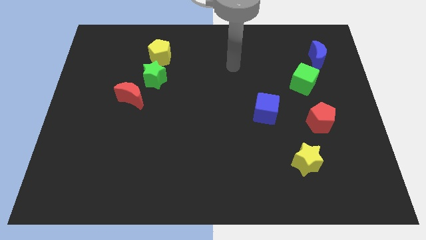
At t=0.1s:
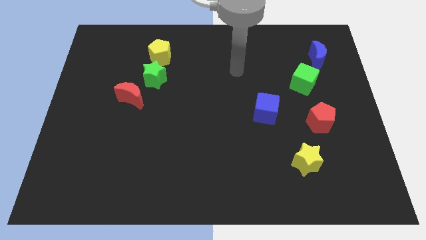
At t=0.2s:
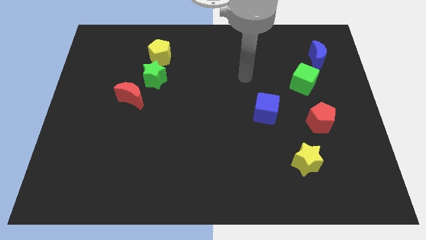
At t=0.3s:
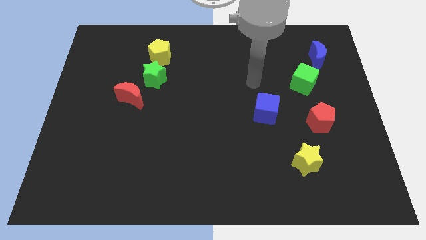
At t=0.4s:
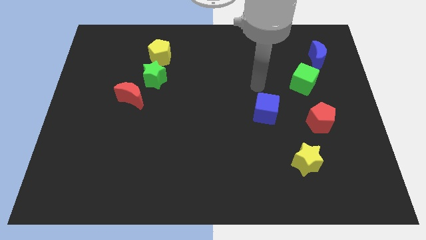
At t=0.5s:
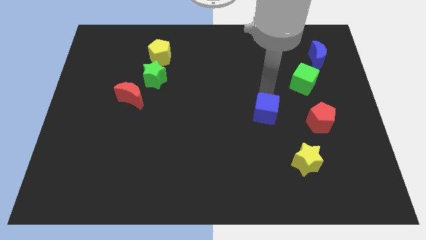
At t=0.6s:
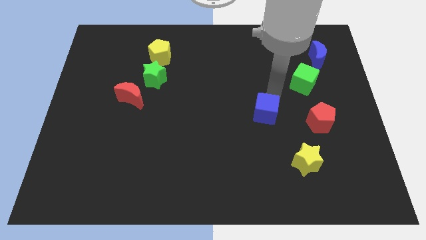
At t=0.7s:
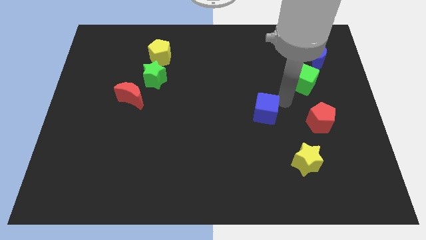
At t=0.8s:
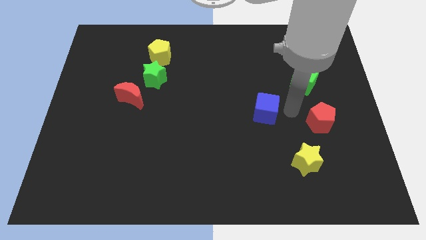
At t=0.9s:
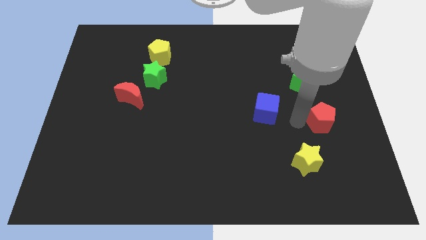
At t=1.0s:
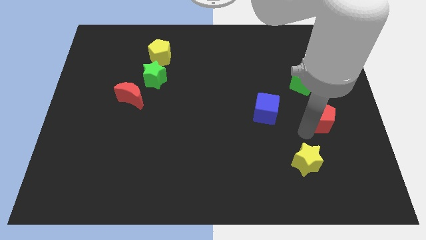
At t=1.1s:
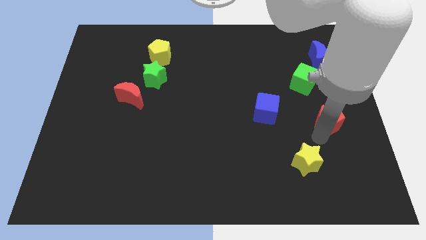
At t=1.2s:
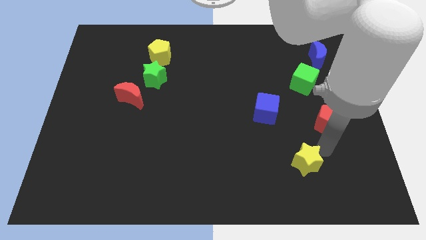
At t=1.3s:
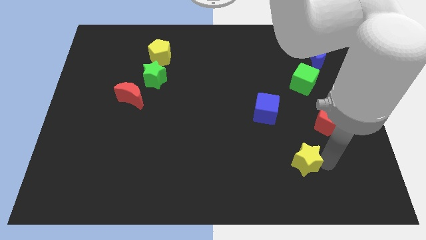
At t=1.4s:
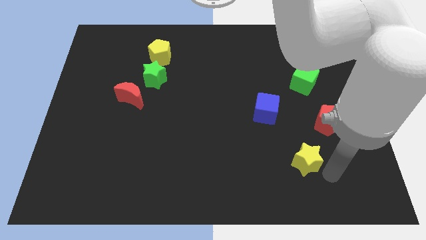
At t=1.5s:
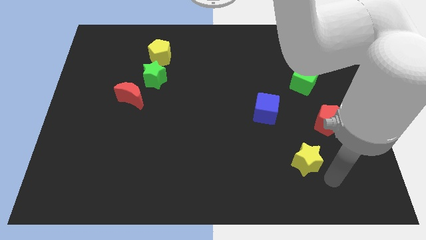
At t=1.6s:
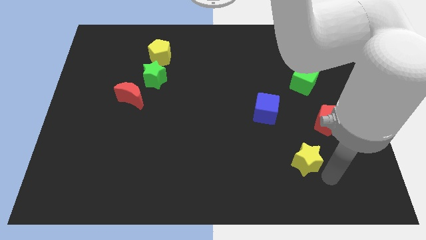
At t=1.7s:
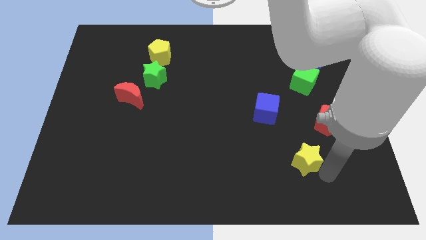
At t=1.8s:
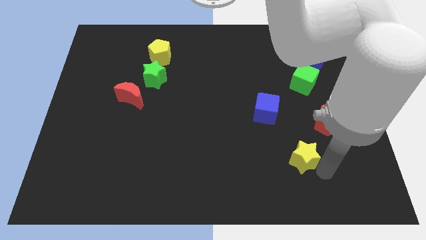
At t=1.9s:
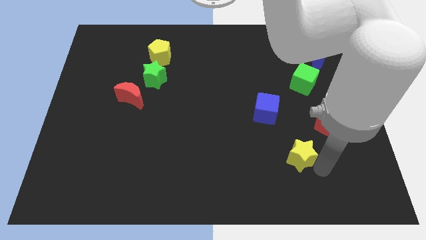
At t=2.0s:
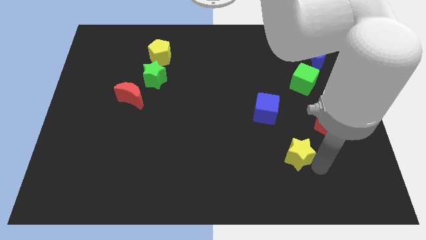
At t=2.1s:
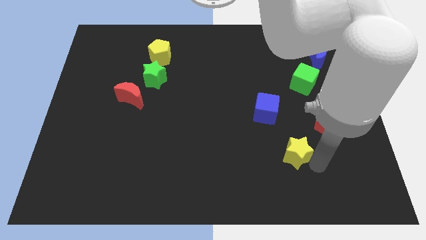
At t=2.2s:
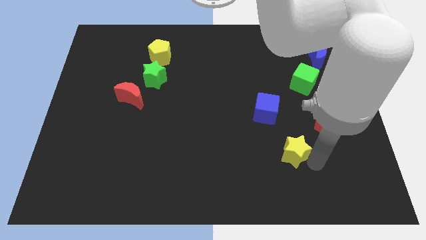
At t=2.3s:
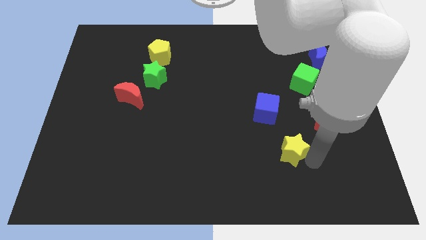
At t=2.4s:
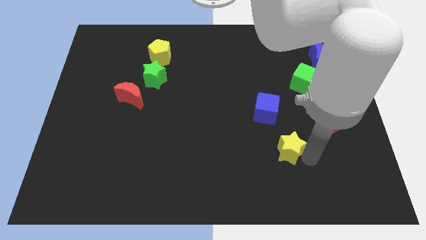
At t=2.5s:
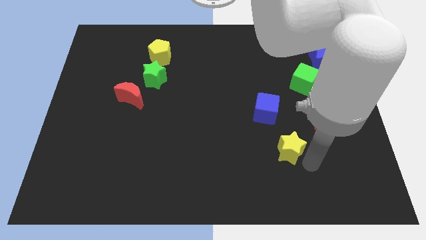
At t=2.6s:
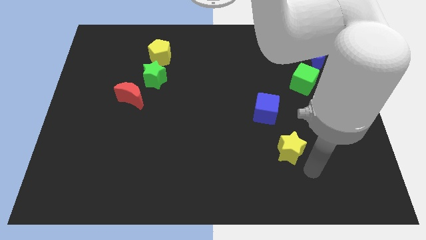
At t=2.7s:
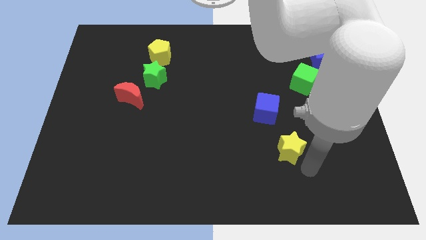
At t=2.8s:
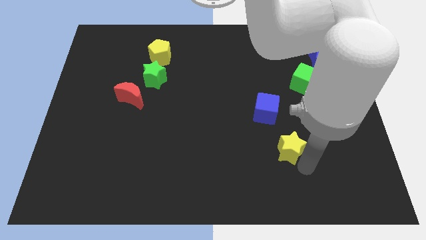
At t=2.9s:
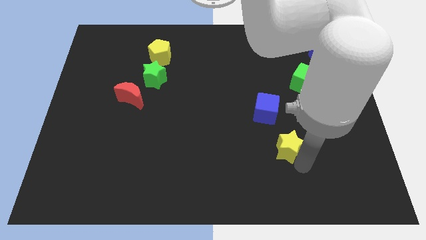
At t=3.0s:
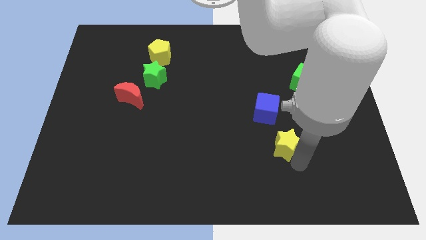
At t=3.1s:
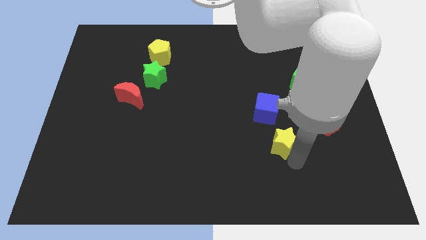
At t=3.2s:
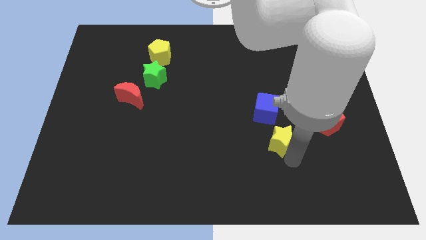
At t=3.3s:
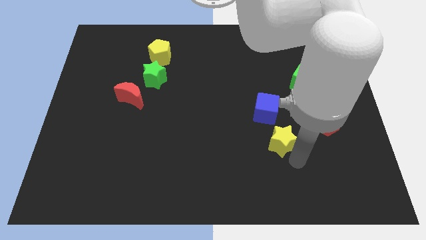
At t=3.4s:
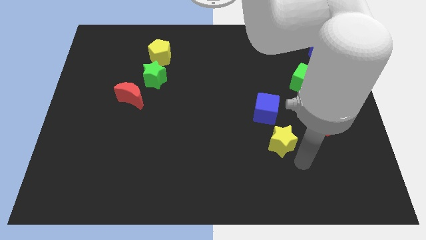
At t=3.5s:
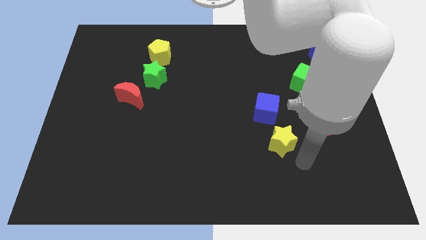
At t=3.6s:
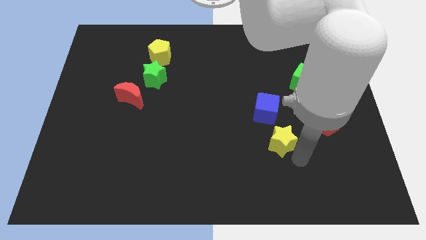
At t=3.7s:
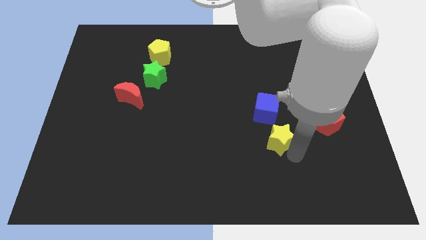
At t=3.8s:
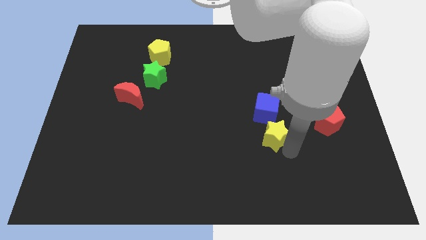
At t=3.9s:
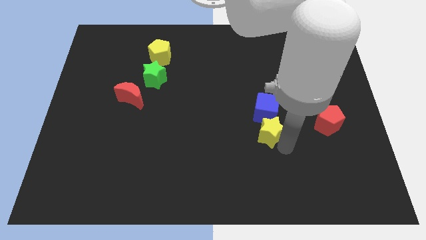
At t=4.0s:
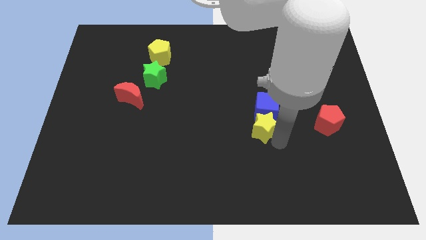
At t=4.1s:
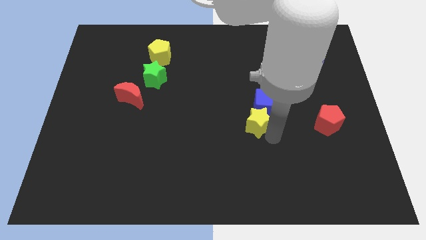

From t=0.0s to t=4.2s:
put the yellow star to the center

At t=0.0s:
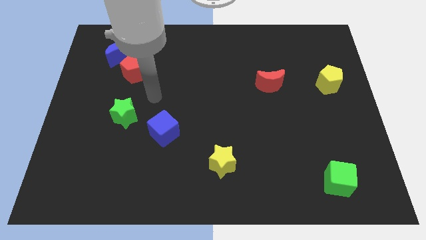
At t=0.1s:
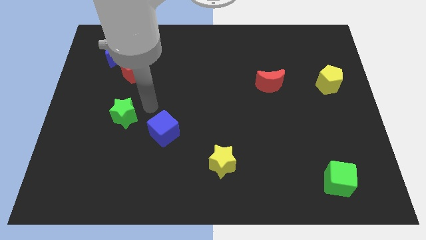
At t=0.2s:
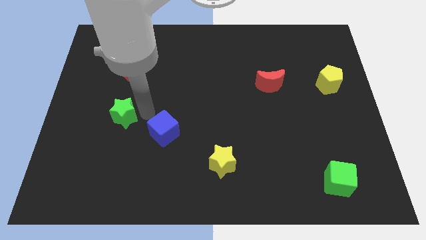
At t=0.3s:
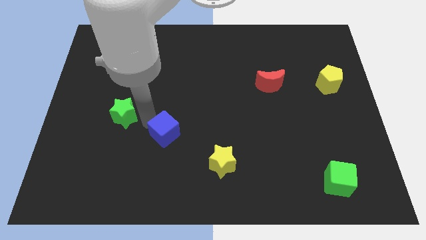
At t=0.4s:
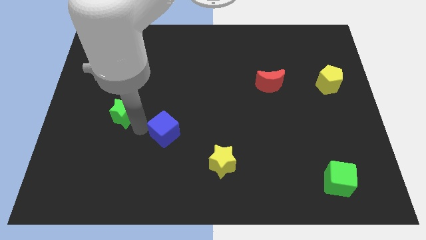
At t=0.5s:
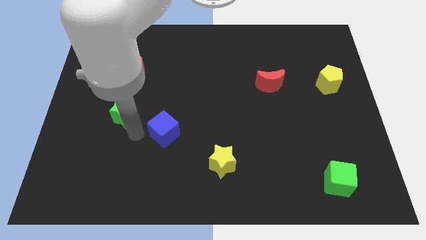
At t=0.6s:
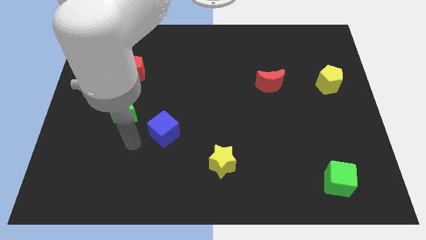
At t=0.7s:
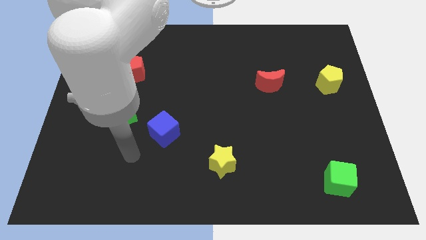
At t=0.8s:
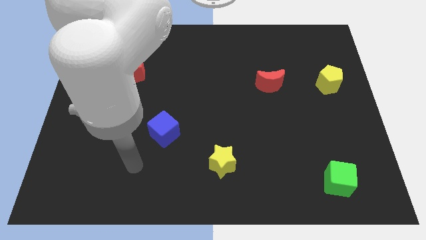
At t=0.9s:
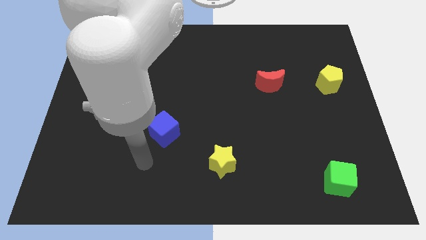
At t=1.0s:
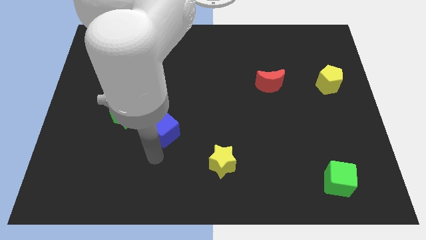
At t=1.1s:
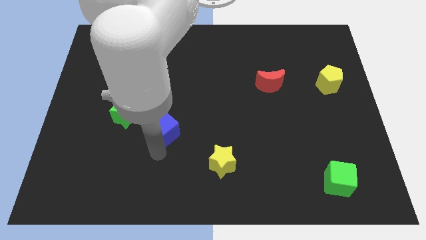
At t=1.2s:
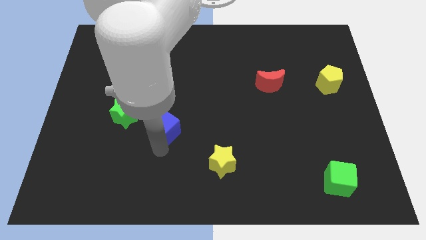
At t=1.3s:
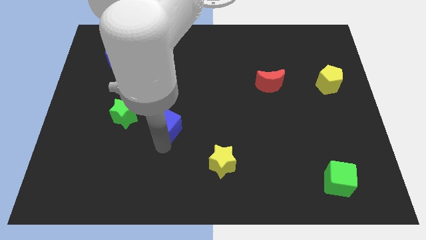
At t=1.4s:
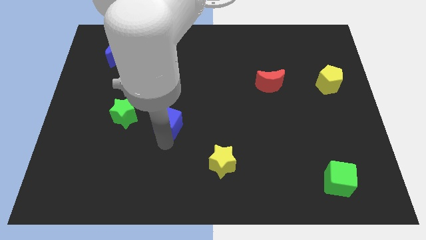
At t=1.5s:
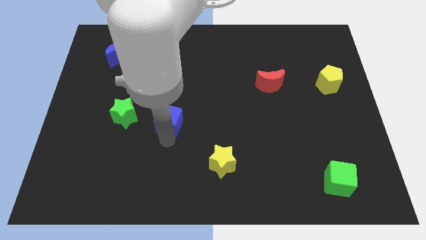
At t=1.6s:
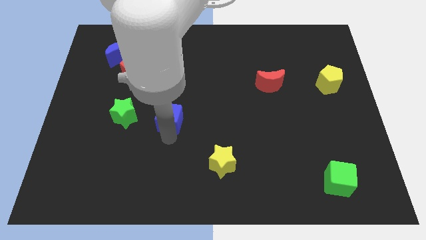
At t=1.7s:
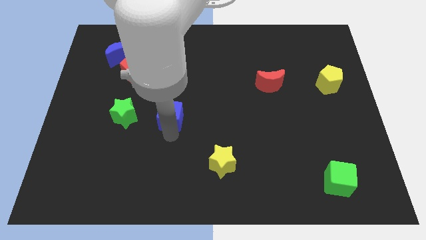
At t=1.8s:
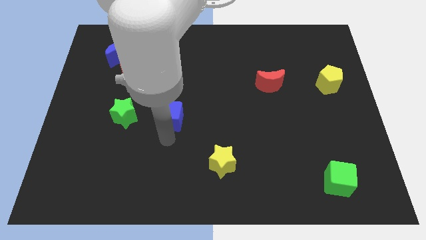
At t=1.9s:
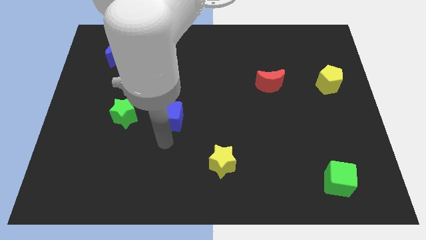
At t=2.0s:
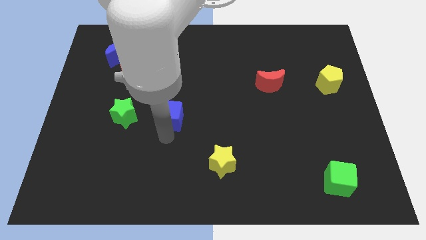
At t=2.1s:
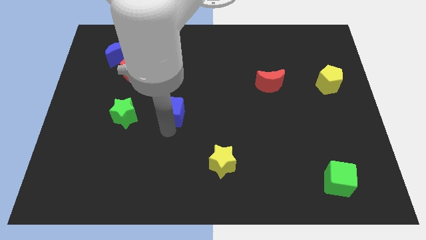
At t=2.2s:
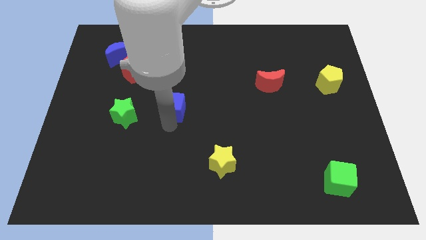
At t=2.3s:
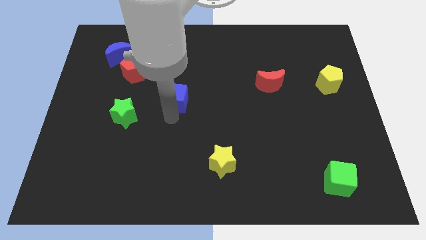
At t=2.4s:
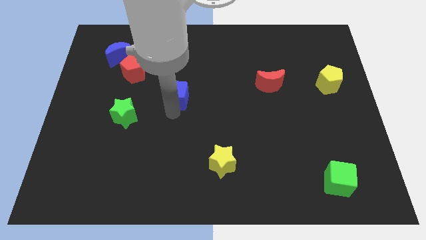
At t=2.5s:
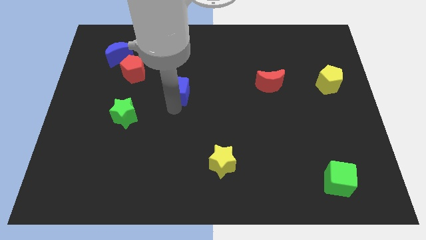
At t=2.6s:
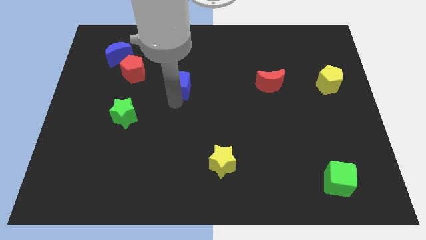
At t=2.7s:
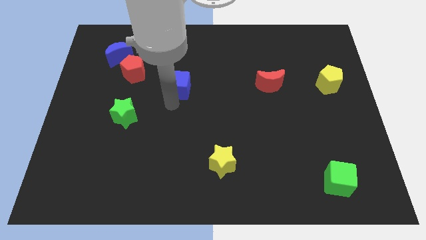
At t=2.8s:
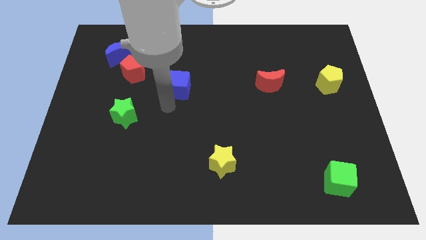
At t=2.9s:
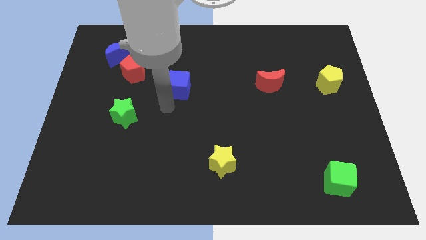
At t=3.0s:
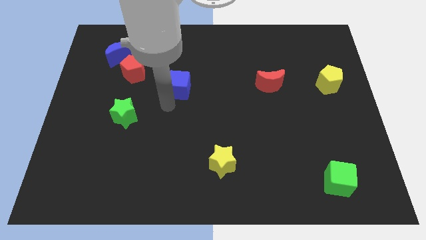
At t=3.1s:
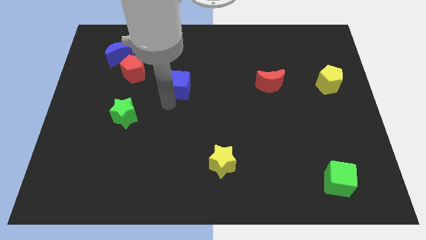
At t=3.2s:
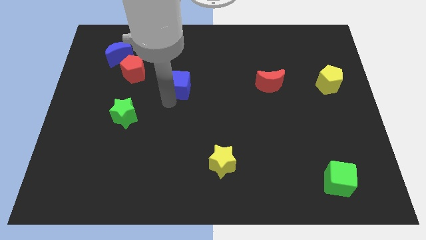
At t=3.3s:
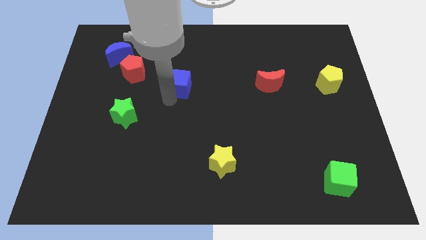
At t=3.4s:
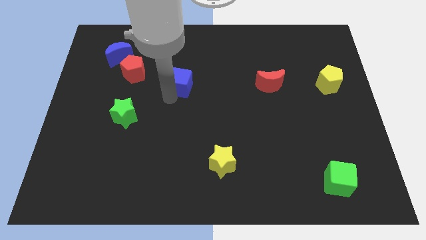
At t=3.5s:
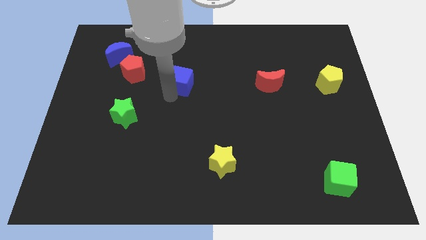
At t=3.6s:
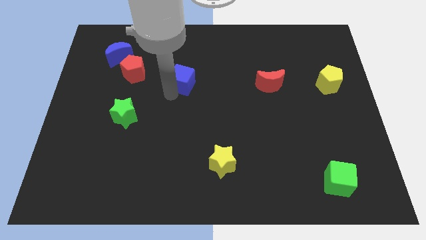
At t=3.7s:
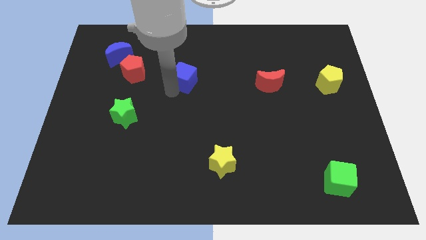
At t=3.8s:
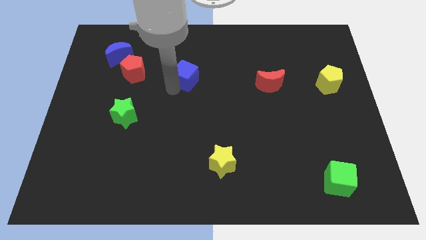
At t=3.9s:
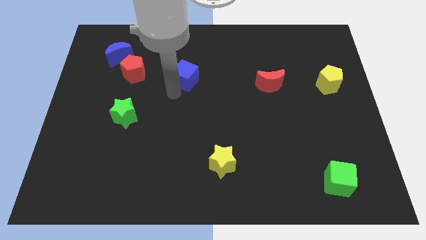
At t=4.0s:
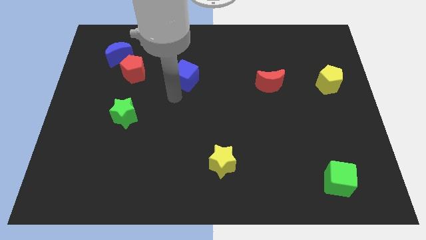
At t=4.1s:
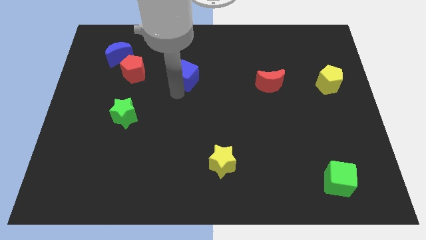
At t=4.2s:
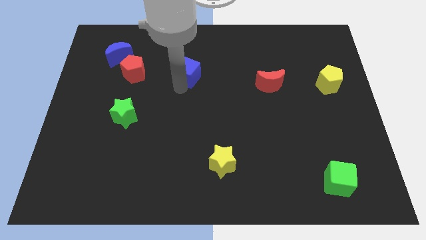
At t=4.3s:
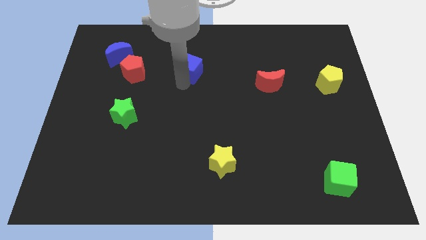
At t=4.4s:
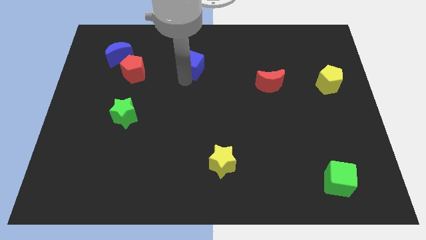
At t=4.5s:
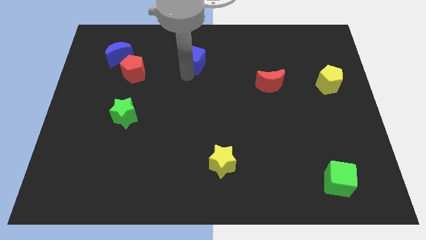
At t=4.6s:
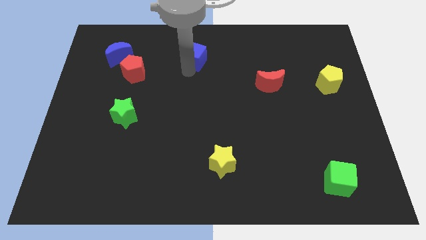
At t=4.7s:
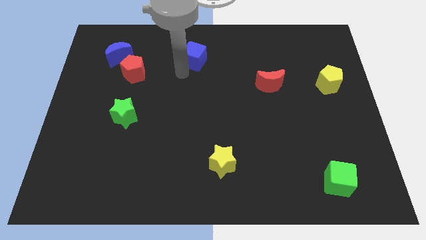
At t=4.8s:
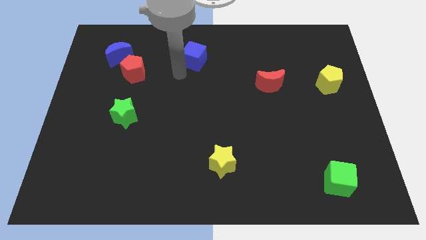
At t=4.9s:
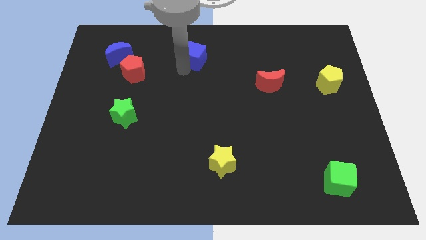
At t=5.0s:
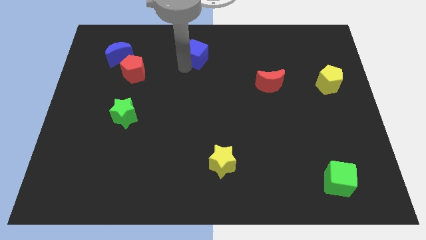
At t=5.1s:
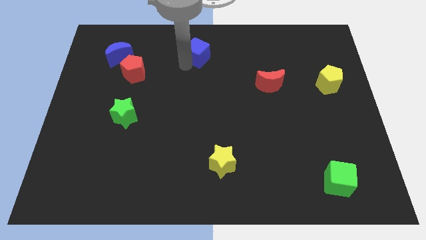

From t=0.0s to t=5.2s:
move the blue cube to the top side
